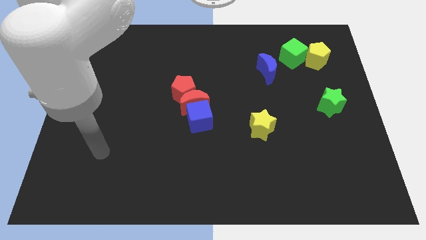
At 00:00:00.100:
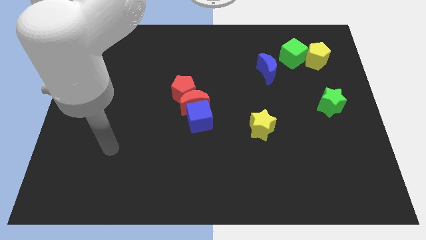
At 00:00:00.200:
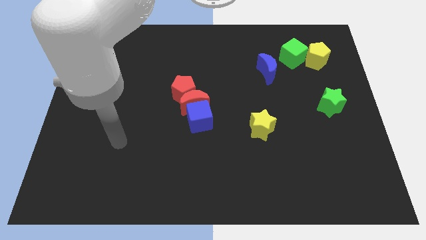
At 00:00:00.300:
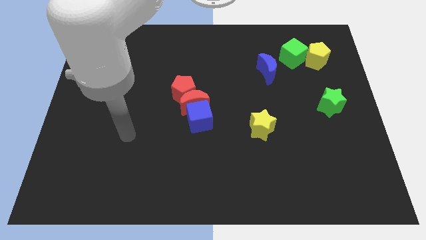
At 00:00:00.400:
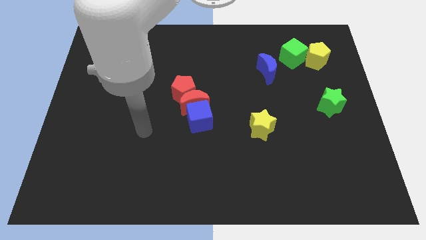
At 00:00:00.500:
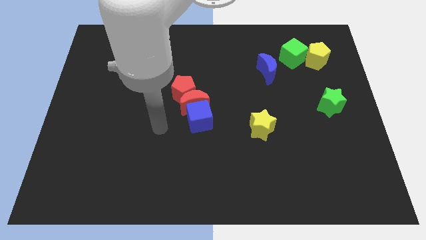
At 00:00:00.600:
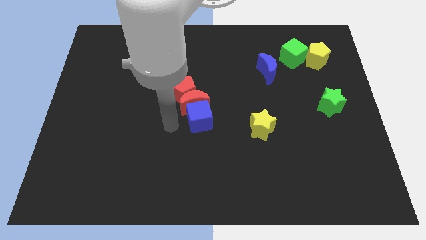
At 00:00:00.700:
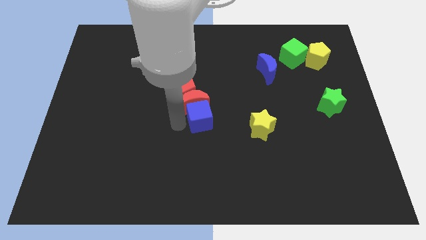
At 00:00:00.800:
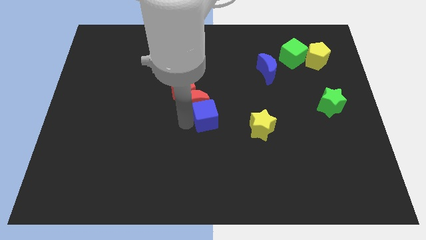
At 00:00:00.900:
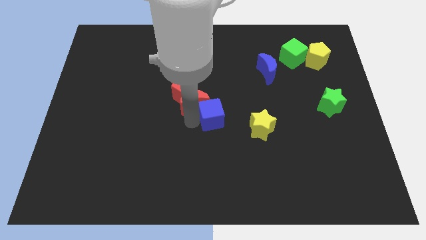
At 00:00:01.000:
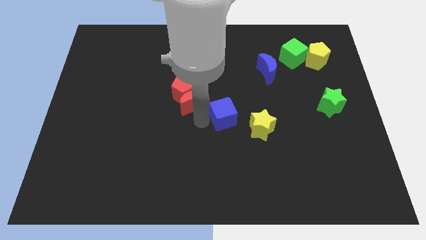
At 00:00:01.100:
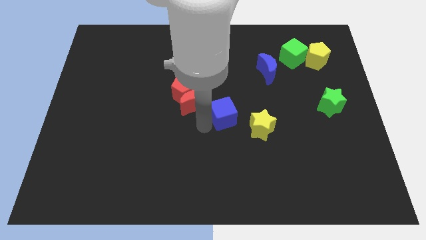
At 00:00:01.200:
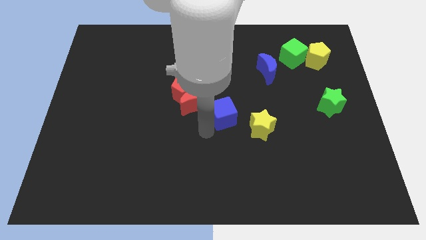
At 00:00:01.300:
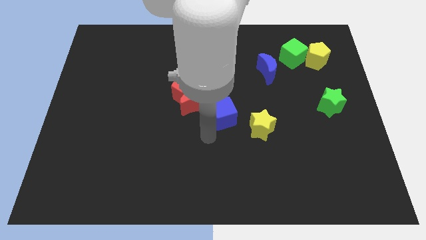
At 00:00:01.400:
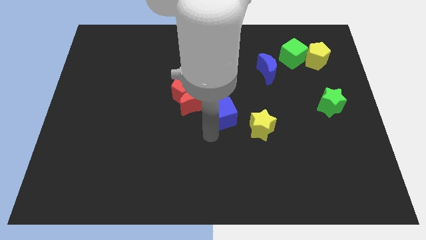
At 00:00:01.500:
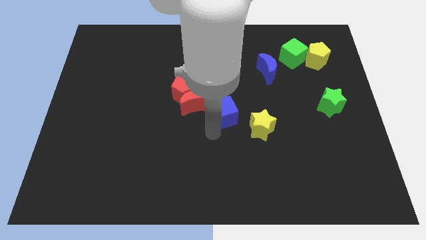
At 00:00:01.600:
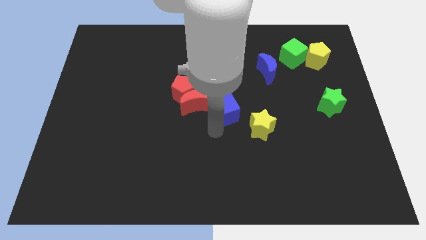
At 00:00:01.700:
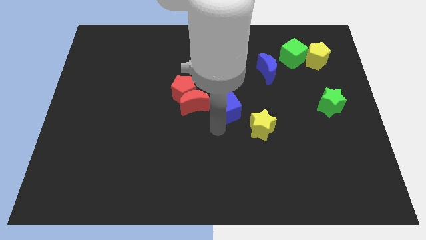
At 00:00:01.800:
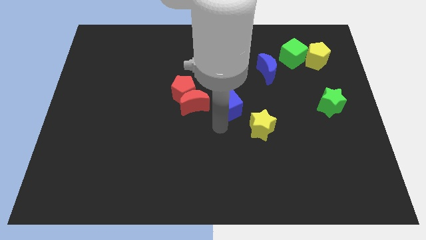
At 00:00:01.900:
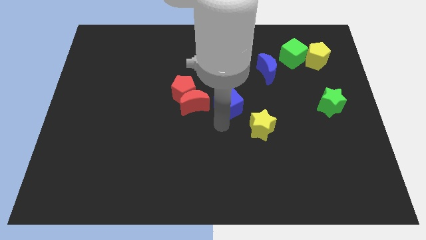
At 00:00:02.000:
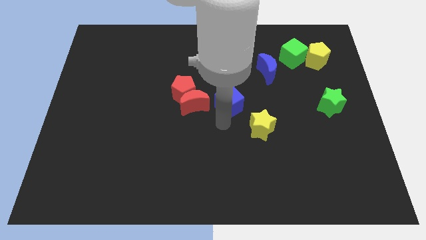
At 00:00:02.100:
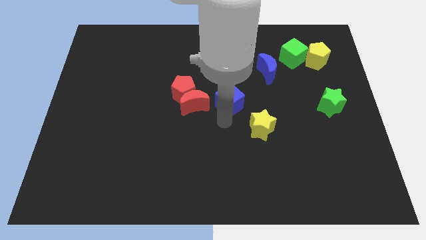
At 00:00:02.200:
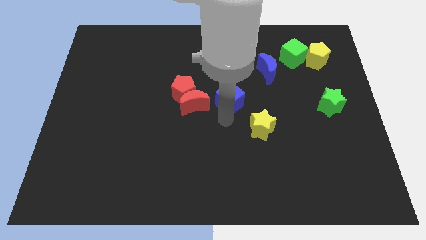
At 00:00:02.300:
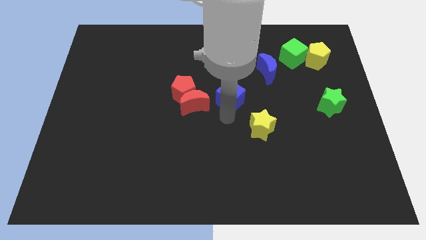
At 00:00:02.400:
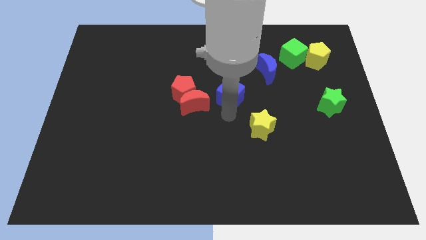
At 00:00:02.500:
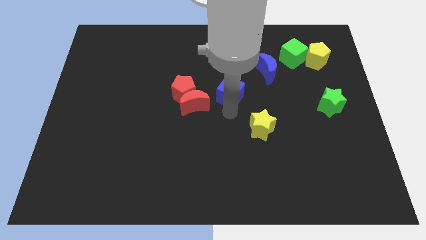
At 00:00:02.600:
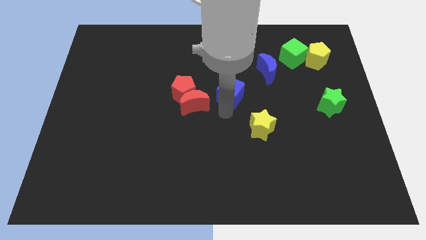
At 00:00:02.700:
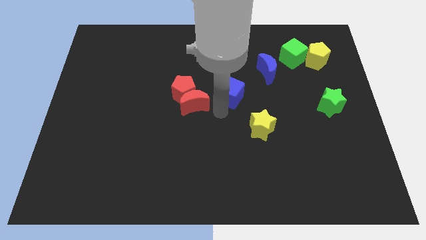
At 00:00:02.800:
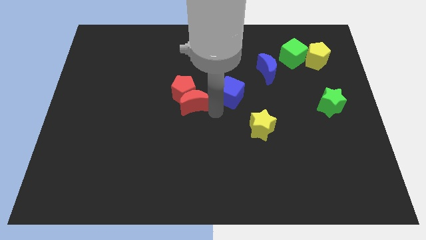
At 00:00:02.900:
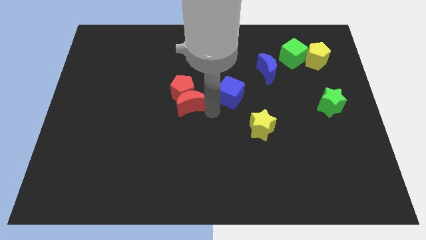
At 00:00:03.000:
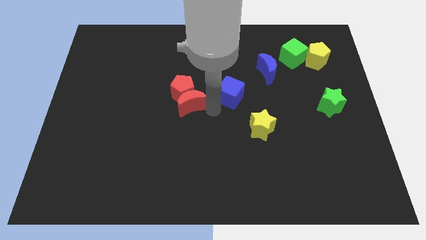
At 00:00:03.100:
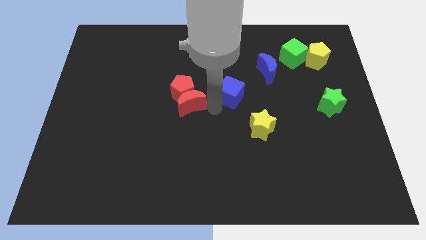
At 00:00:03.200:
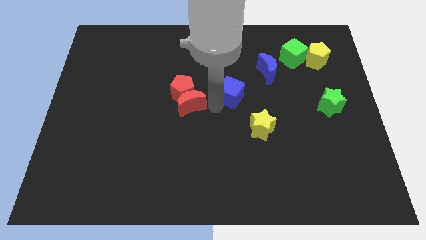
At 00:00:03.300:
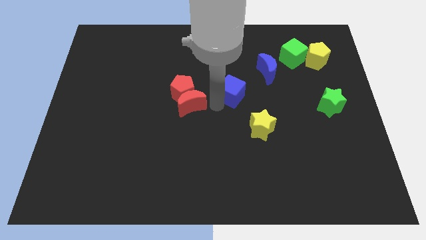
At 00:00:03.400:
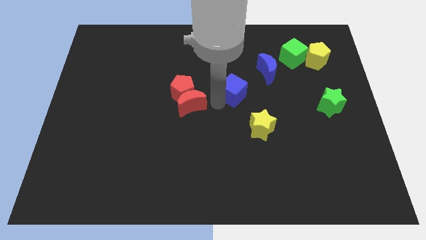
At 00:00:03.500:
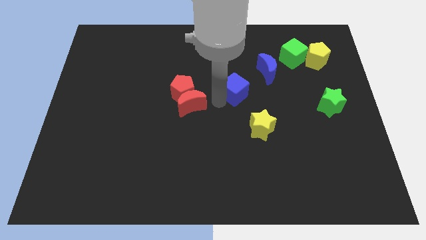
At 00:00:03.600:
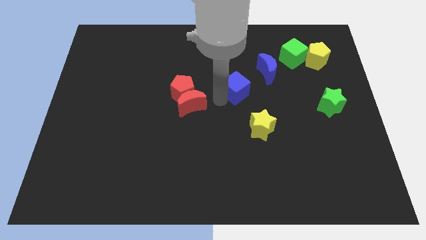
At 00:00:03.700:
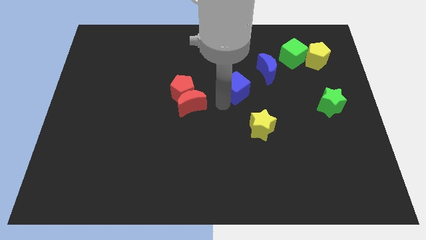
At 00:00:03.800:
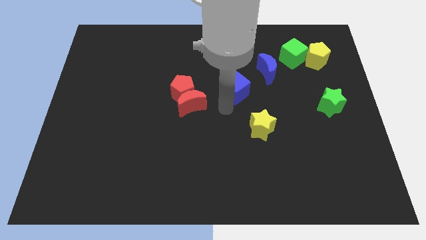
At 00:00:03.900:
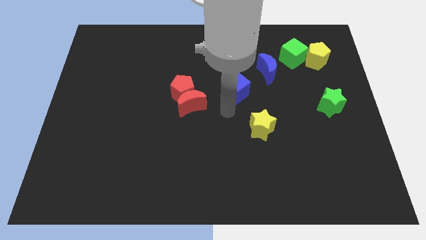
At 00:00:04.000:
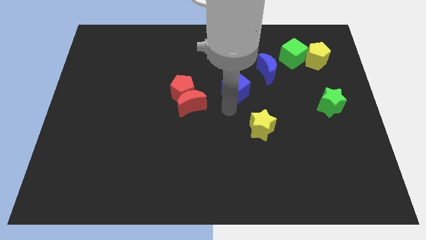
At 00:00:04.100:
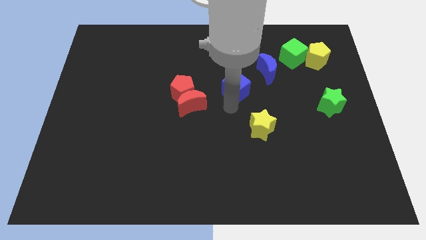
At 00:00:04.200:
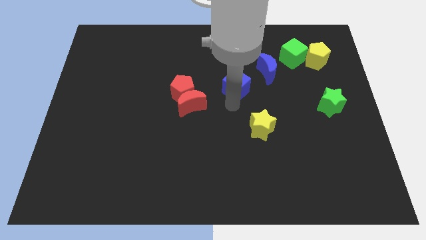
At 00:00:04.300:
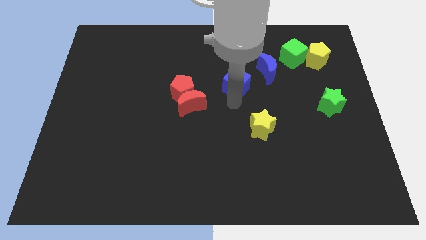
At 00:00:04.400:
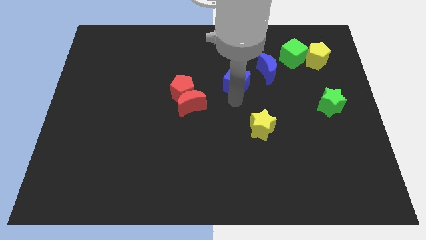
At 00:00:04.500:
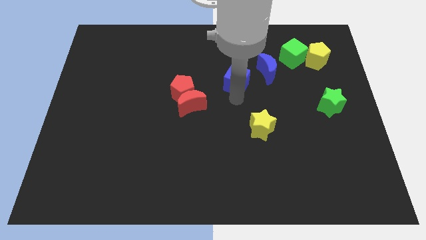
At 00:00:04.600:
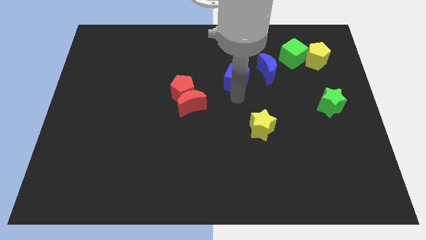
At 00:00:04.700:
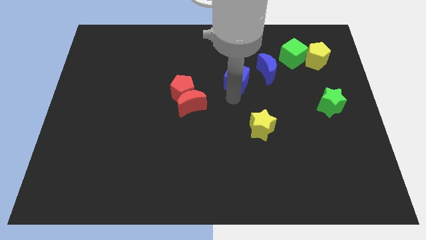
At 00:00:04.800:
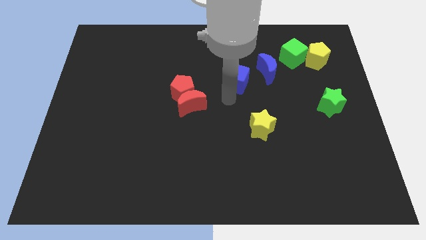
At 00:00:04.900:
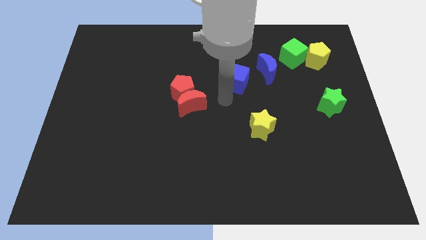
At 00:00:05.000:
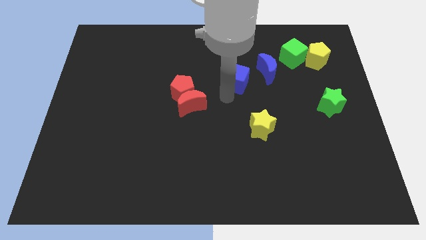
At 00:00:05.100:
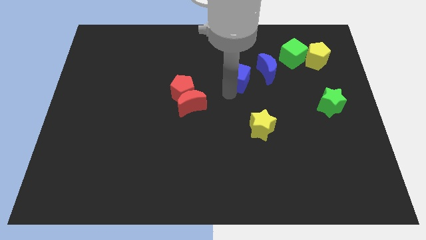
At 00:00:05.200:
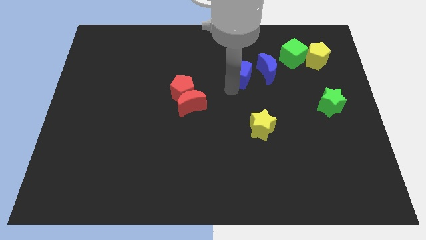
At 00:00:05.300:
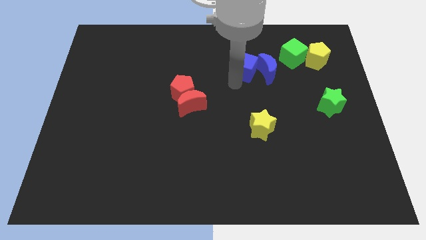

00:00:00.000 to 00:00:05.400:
push the blue cube just left of the green cube

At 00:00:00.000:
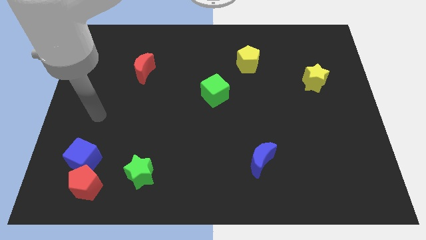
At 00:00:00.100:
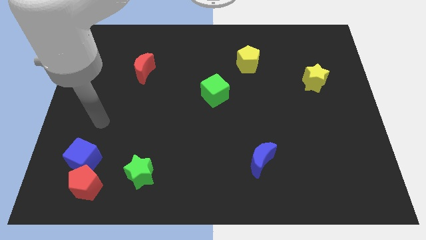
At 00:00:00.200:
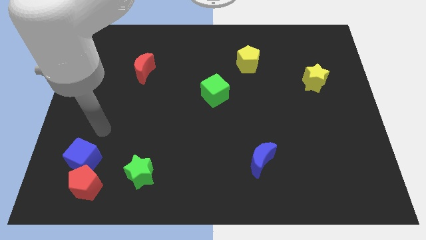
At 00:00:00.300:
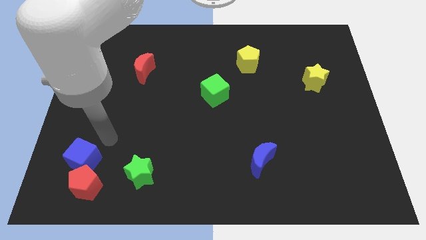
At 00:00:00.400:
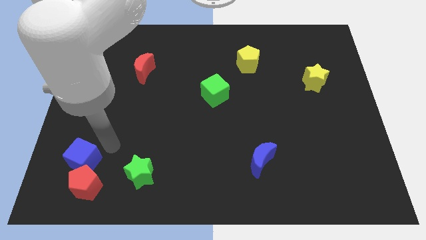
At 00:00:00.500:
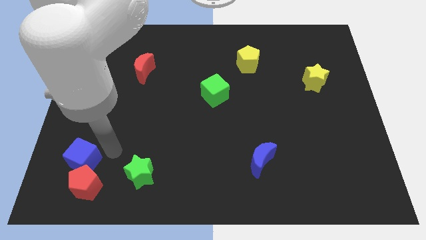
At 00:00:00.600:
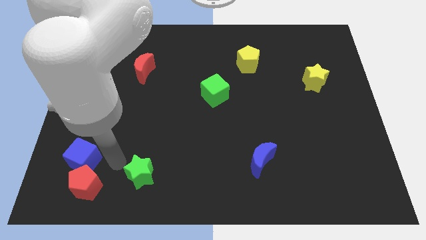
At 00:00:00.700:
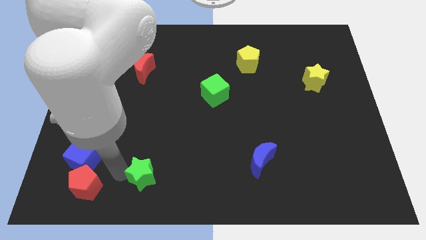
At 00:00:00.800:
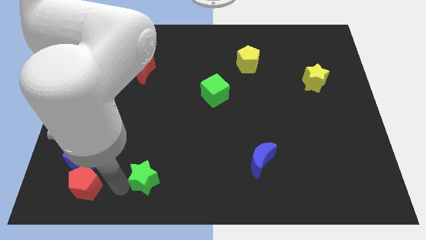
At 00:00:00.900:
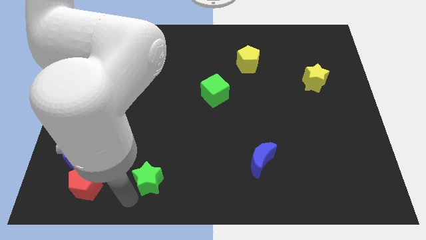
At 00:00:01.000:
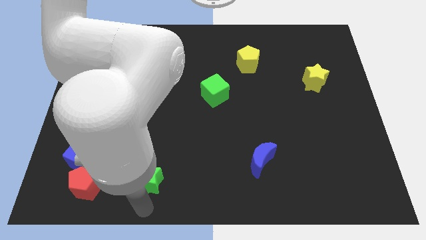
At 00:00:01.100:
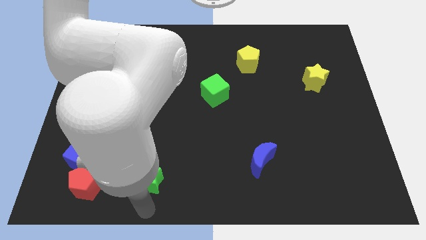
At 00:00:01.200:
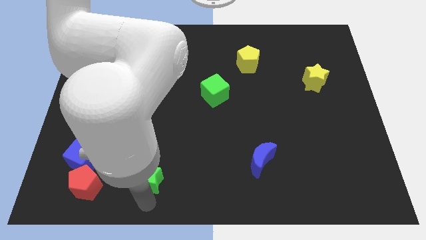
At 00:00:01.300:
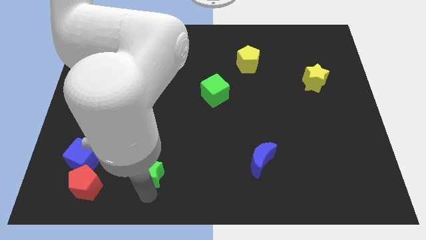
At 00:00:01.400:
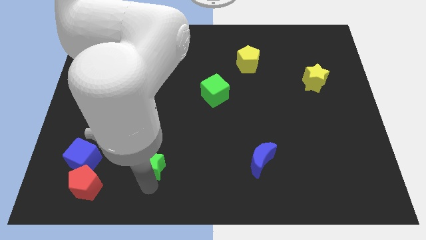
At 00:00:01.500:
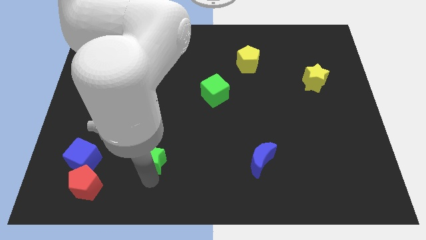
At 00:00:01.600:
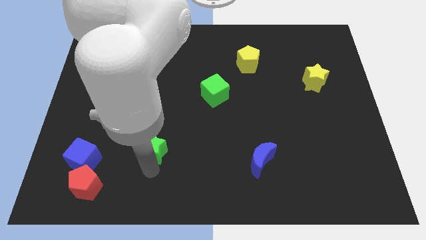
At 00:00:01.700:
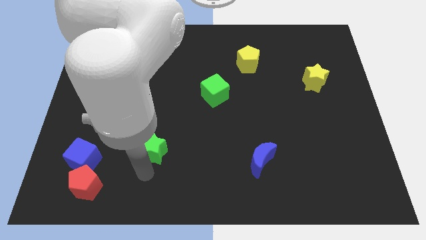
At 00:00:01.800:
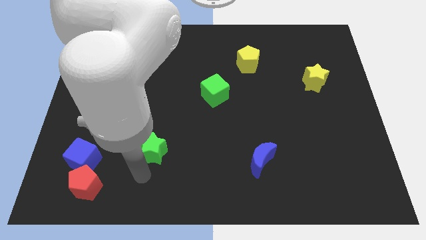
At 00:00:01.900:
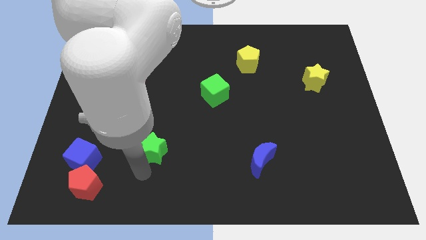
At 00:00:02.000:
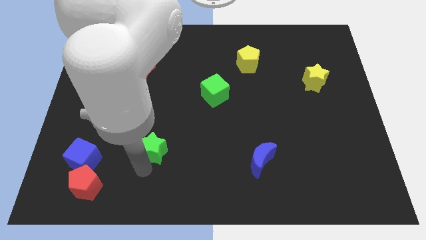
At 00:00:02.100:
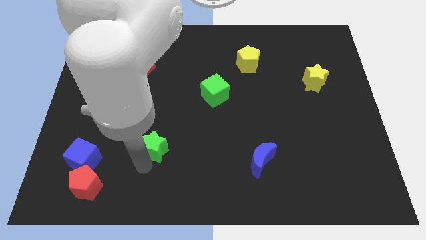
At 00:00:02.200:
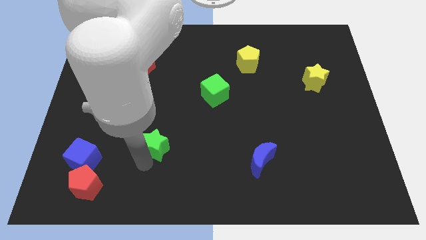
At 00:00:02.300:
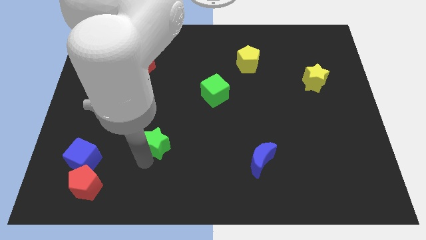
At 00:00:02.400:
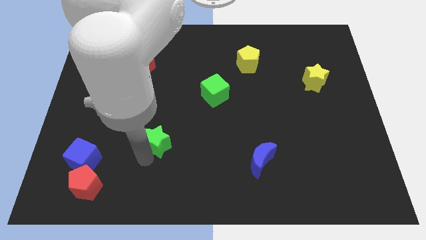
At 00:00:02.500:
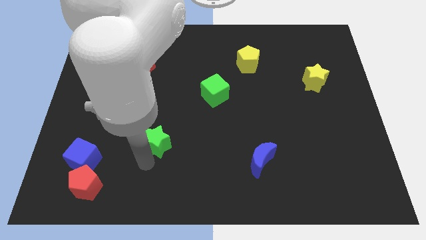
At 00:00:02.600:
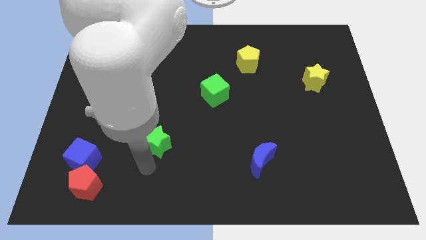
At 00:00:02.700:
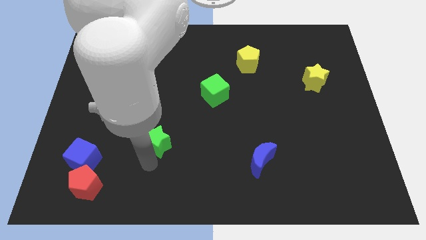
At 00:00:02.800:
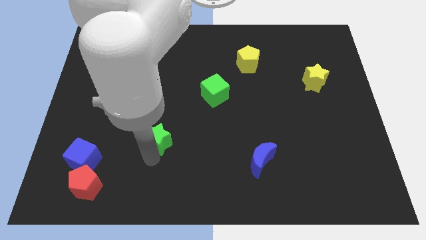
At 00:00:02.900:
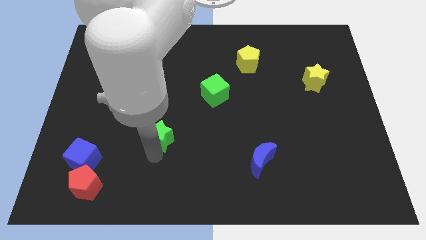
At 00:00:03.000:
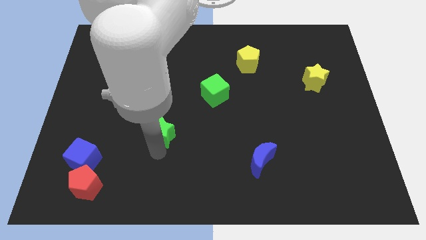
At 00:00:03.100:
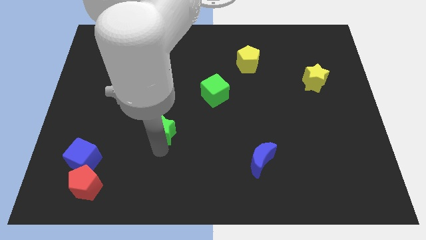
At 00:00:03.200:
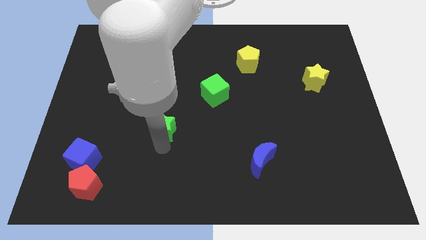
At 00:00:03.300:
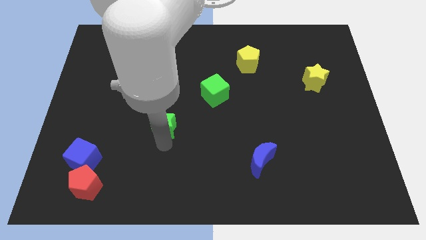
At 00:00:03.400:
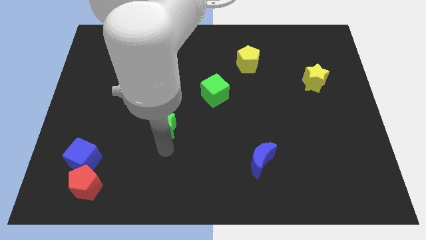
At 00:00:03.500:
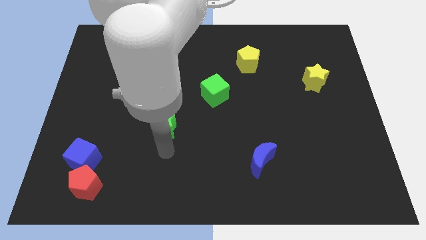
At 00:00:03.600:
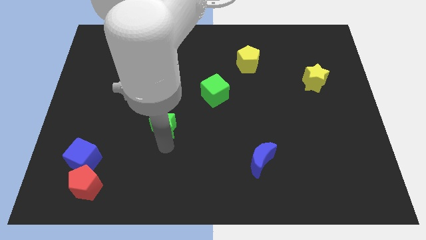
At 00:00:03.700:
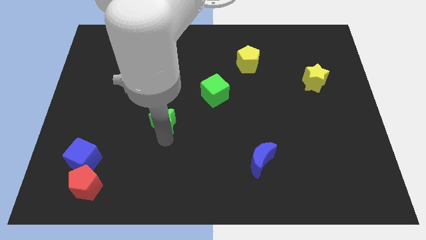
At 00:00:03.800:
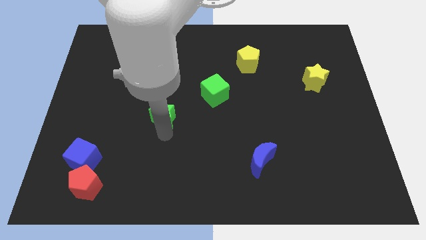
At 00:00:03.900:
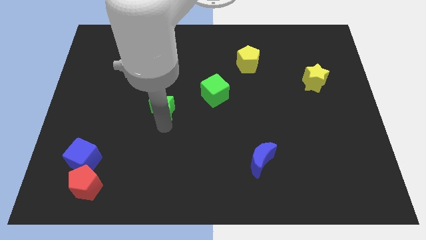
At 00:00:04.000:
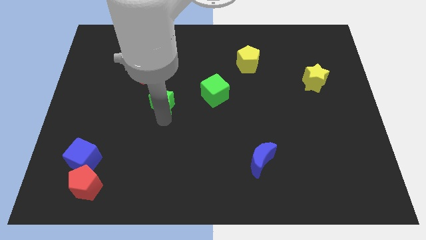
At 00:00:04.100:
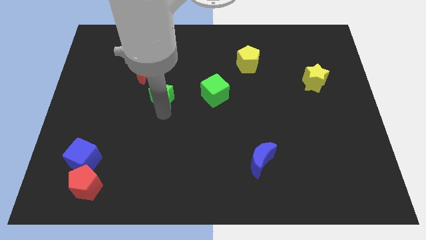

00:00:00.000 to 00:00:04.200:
put the green star to the bottom right of the red moon
